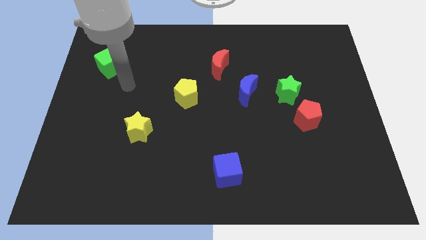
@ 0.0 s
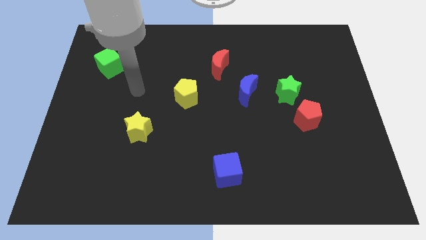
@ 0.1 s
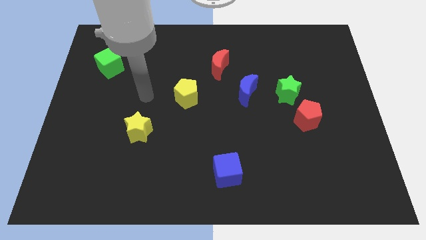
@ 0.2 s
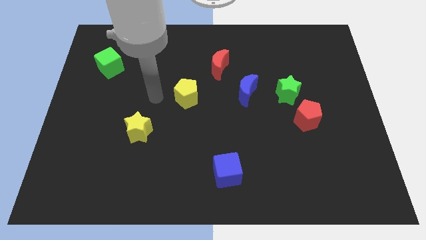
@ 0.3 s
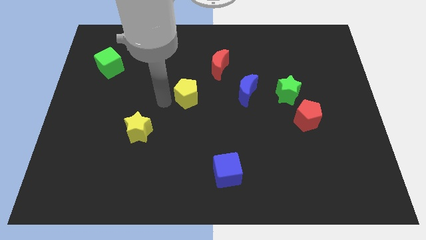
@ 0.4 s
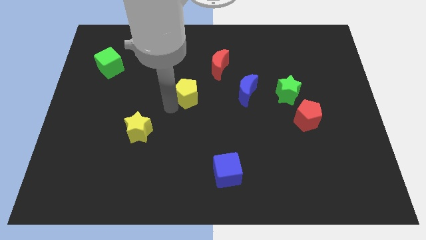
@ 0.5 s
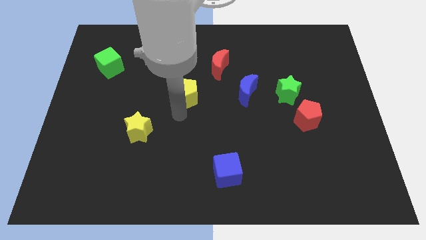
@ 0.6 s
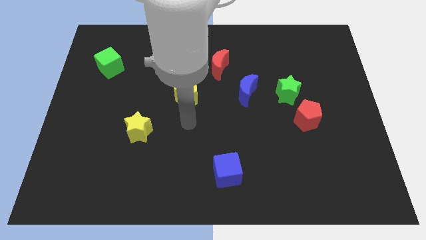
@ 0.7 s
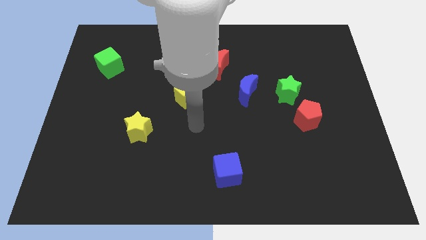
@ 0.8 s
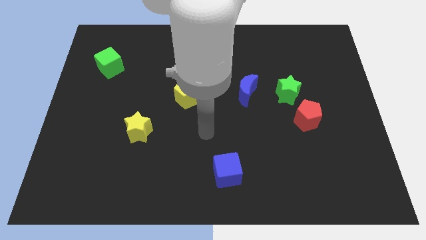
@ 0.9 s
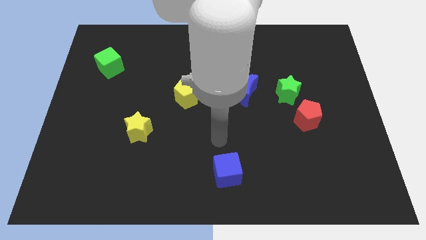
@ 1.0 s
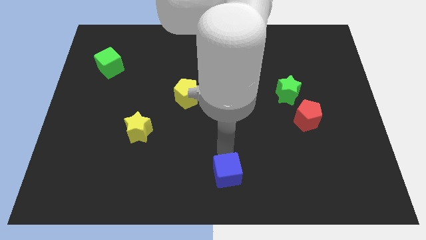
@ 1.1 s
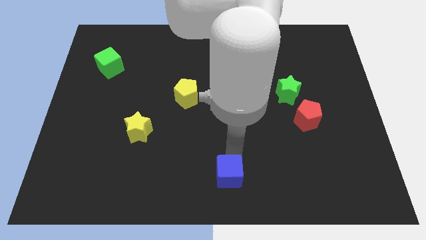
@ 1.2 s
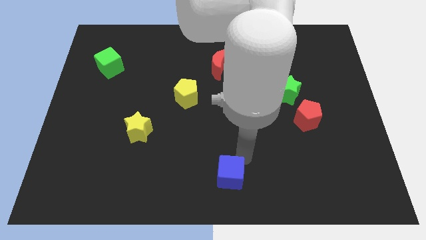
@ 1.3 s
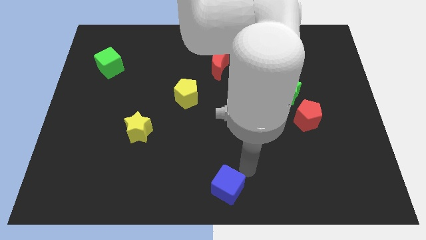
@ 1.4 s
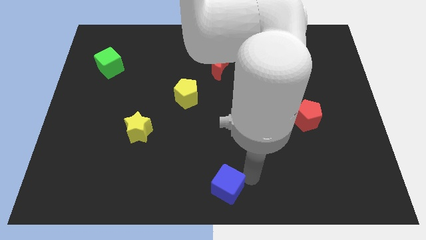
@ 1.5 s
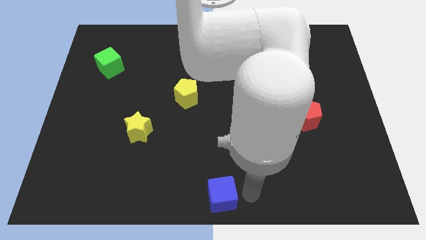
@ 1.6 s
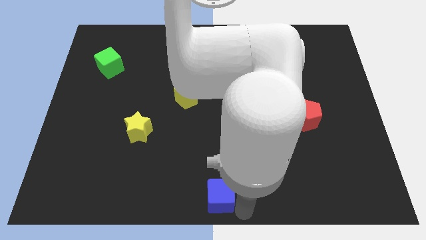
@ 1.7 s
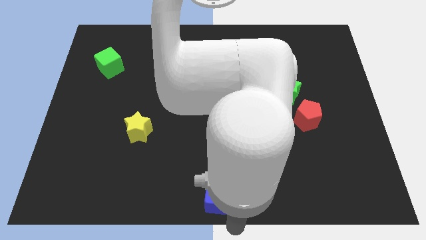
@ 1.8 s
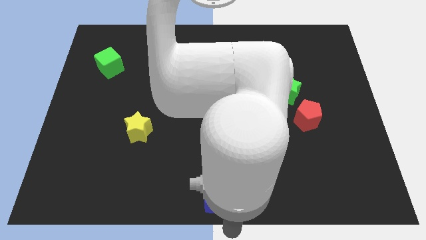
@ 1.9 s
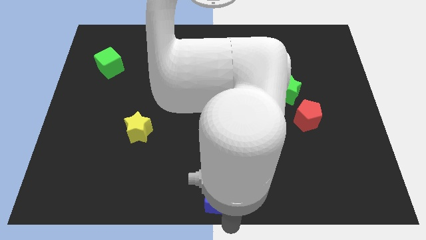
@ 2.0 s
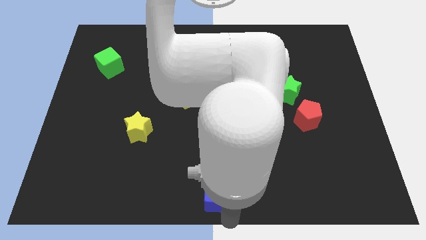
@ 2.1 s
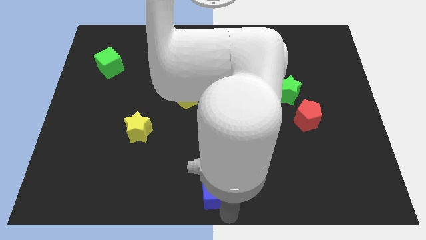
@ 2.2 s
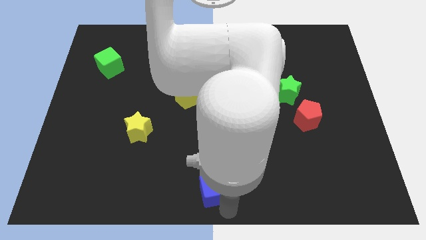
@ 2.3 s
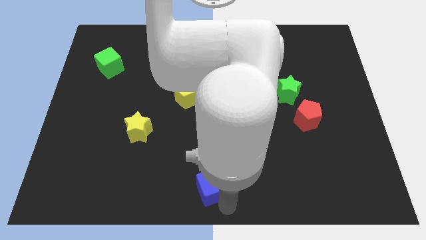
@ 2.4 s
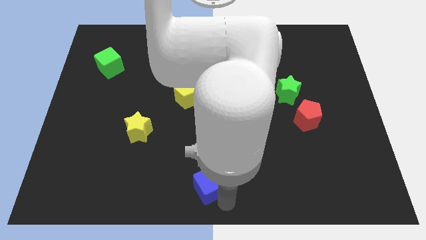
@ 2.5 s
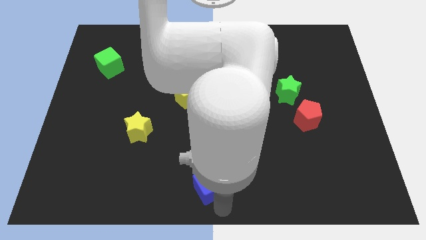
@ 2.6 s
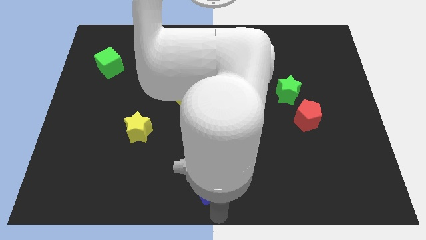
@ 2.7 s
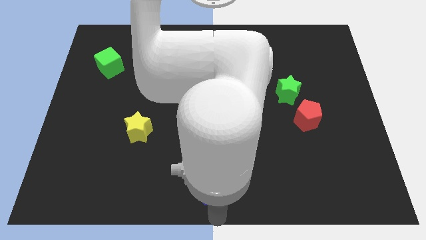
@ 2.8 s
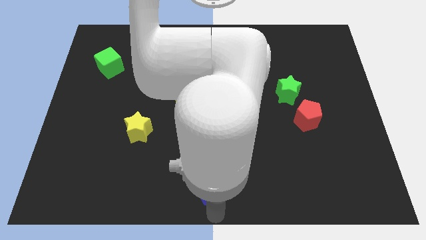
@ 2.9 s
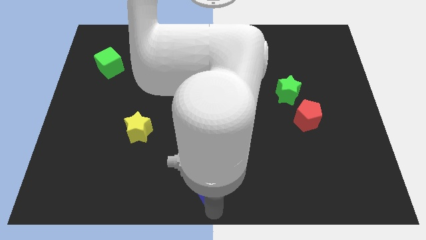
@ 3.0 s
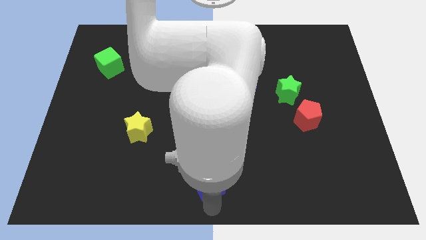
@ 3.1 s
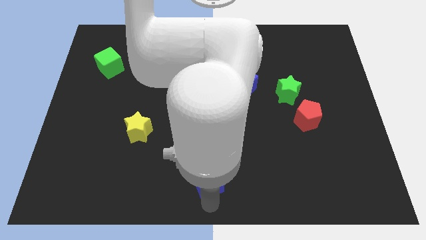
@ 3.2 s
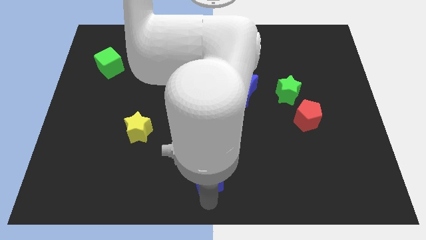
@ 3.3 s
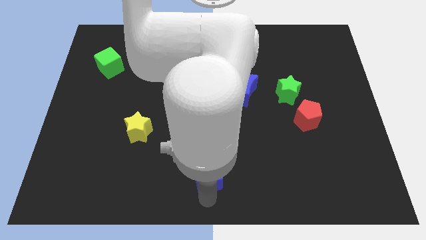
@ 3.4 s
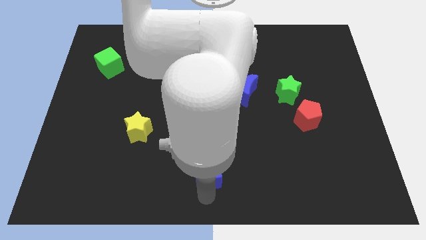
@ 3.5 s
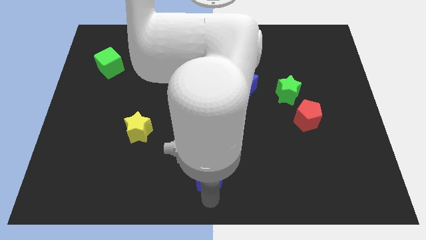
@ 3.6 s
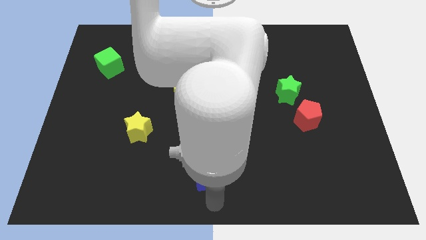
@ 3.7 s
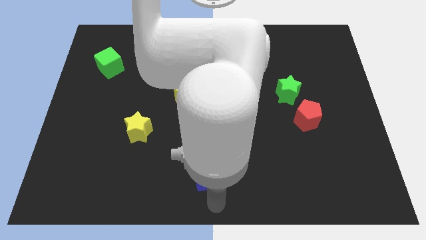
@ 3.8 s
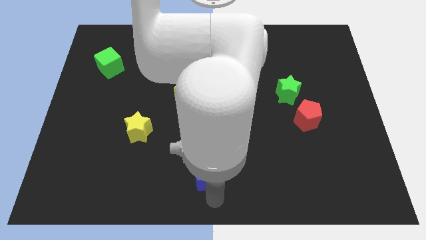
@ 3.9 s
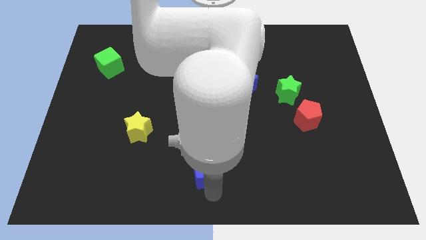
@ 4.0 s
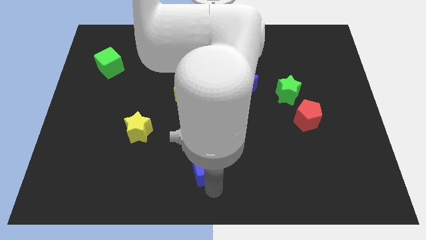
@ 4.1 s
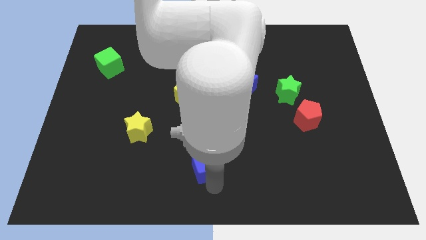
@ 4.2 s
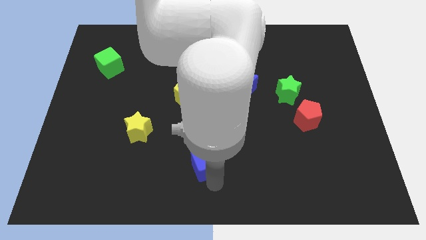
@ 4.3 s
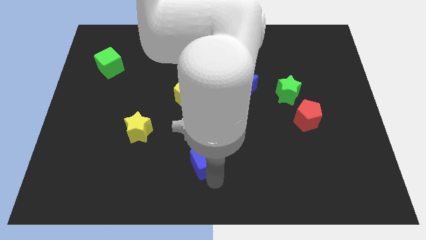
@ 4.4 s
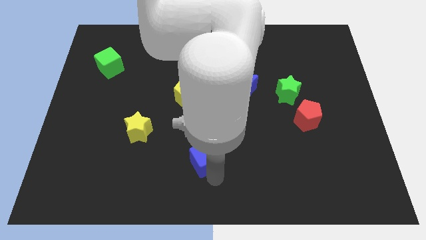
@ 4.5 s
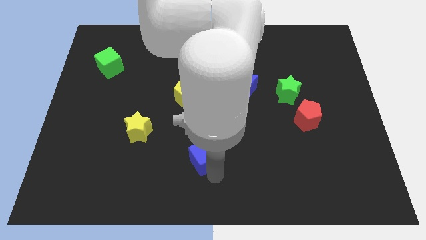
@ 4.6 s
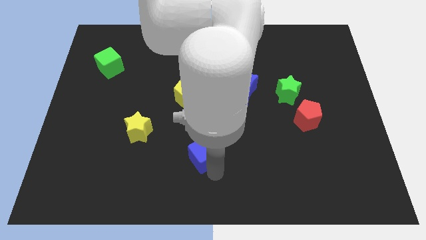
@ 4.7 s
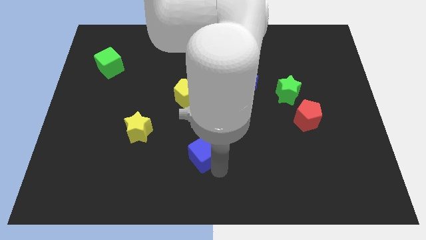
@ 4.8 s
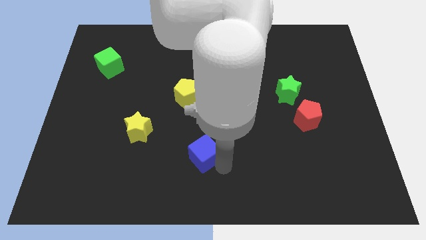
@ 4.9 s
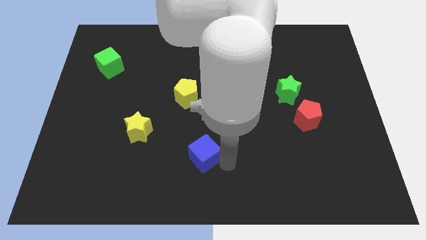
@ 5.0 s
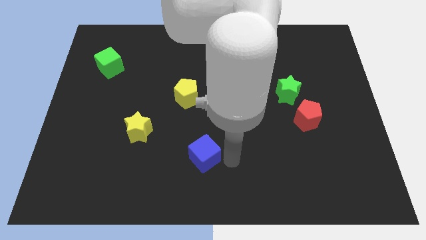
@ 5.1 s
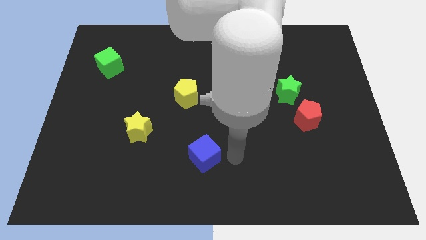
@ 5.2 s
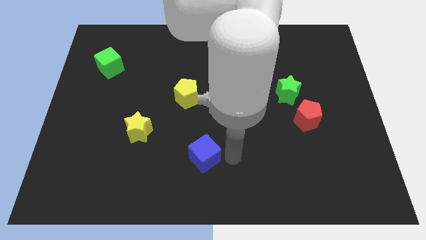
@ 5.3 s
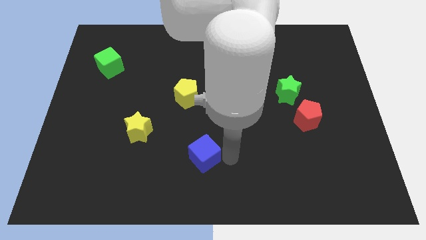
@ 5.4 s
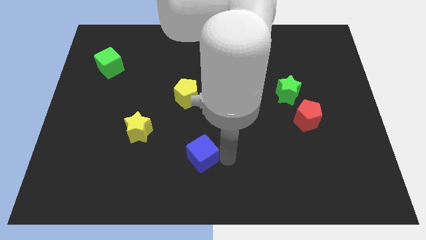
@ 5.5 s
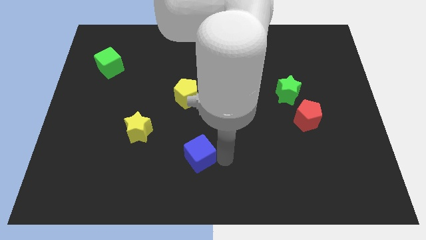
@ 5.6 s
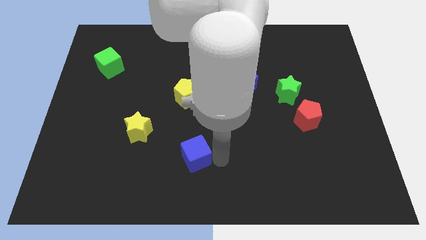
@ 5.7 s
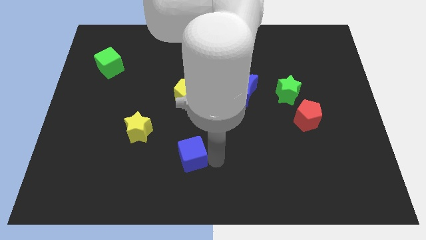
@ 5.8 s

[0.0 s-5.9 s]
slightly move the blue cube left

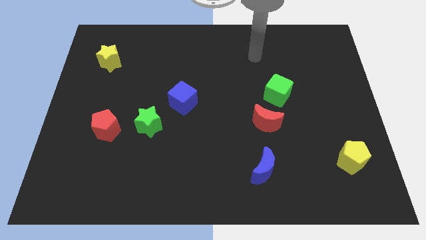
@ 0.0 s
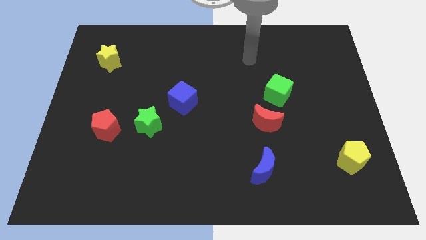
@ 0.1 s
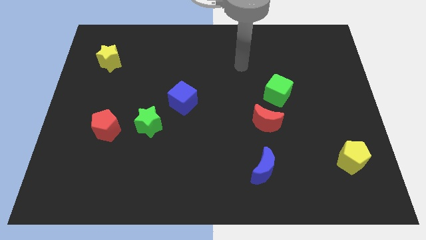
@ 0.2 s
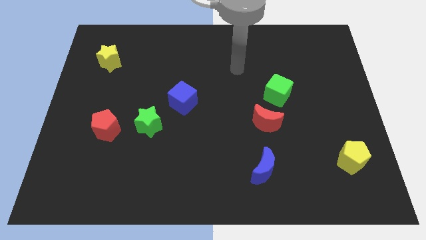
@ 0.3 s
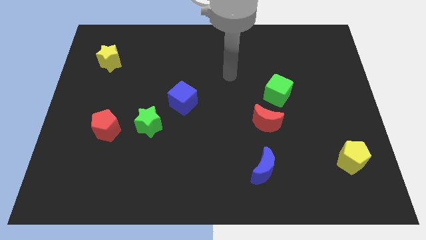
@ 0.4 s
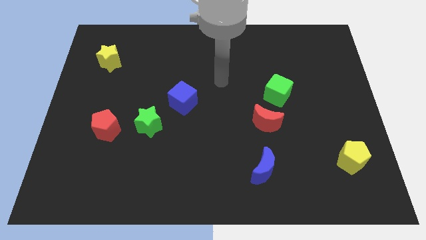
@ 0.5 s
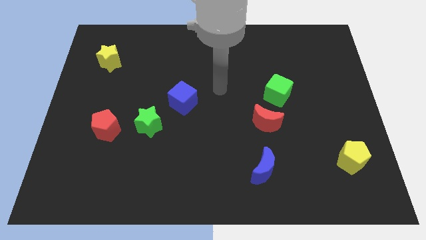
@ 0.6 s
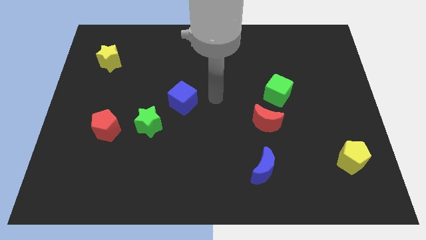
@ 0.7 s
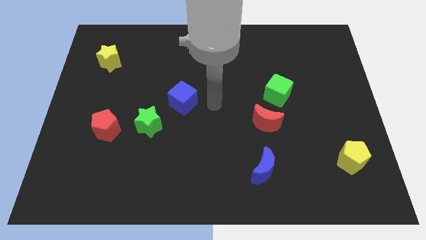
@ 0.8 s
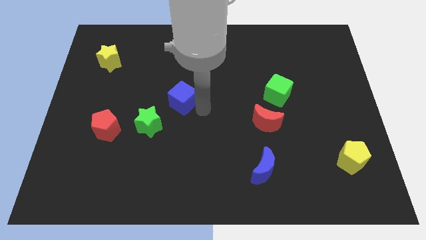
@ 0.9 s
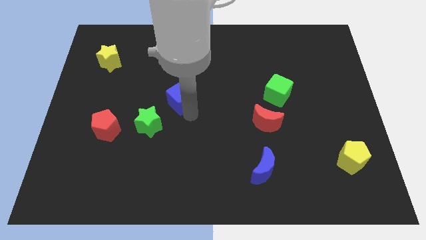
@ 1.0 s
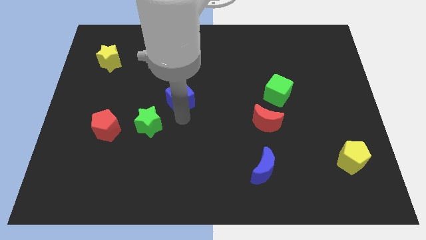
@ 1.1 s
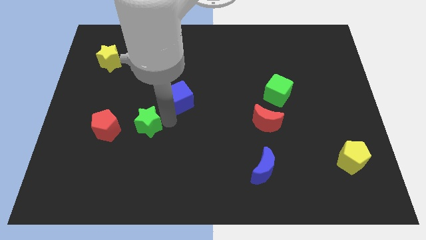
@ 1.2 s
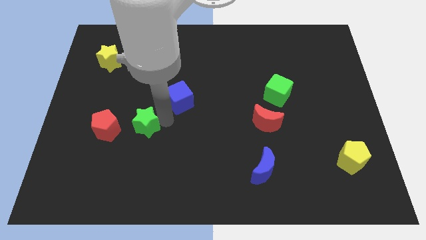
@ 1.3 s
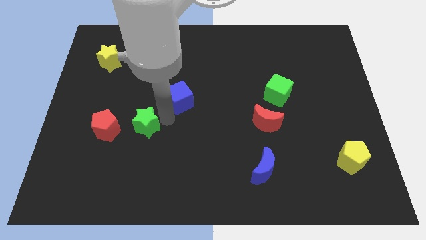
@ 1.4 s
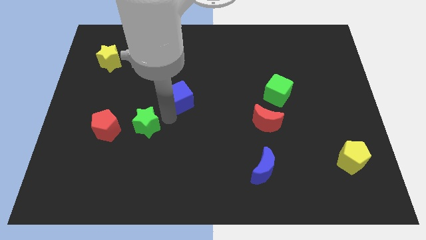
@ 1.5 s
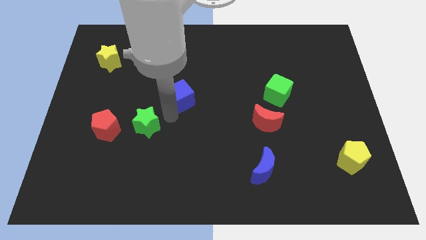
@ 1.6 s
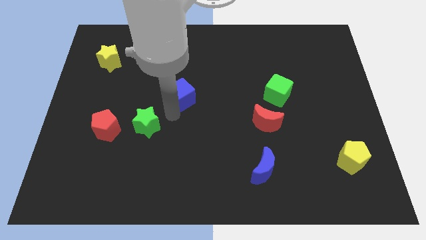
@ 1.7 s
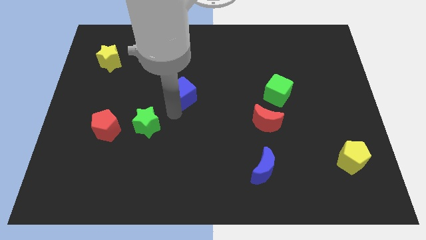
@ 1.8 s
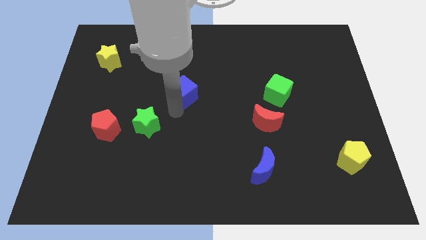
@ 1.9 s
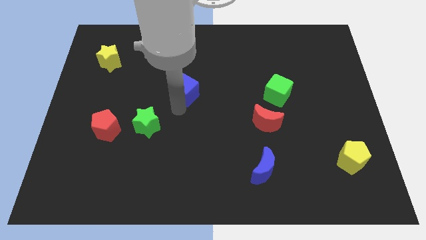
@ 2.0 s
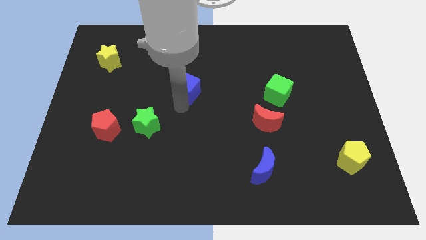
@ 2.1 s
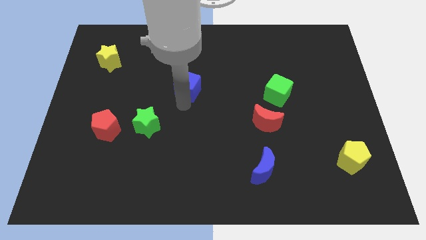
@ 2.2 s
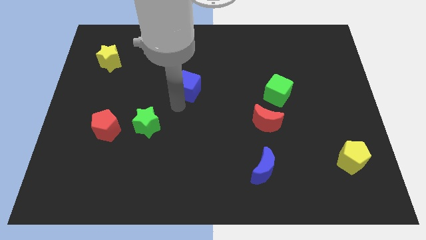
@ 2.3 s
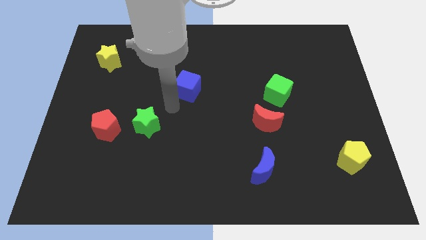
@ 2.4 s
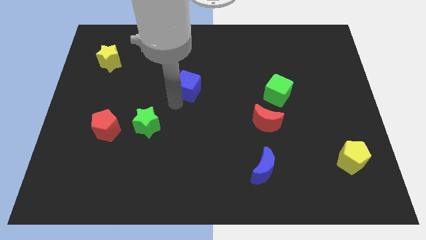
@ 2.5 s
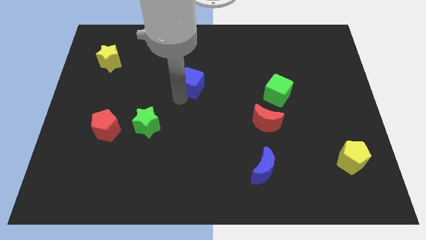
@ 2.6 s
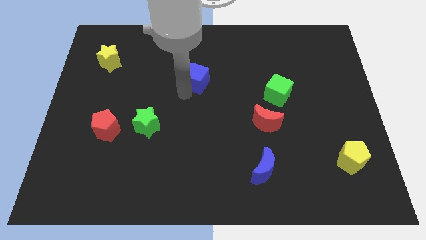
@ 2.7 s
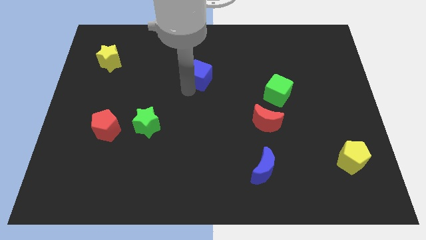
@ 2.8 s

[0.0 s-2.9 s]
move the blue cube a little diagonally upwards and to the right
